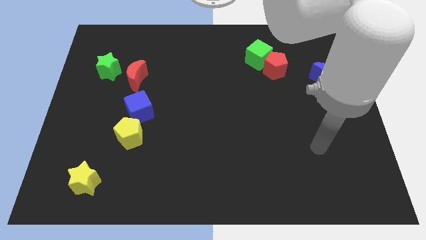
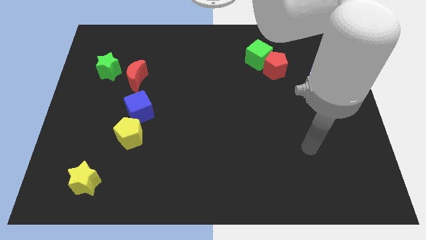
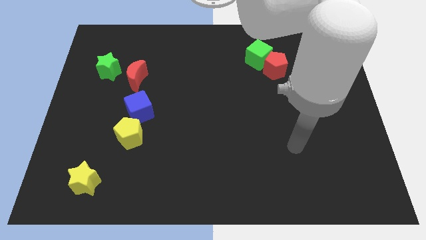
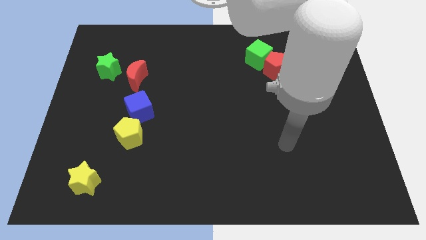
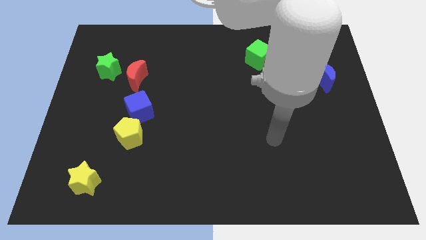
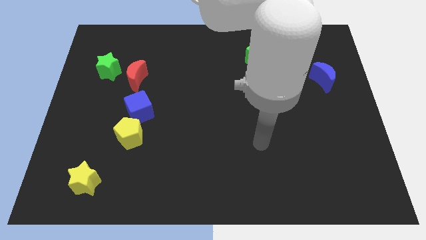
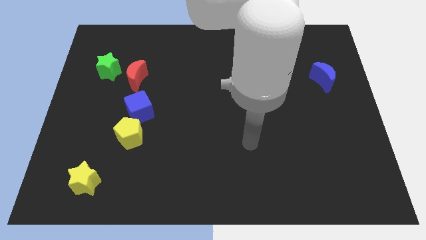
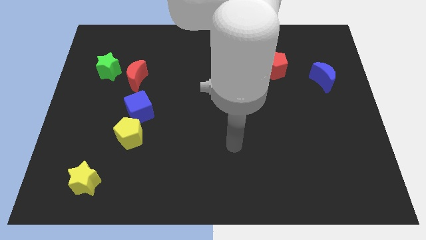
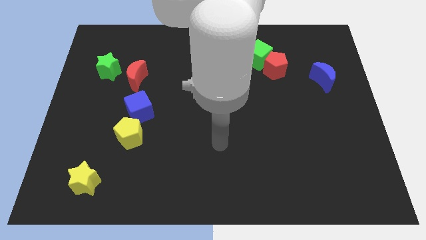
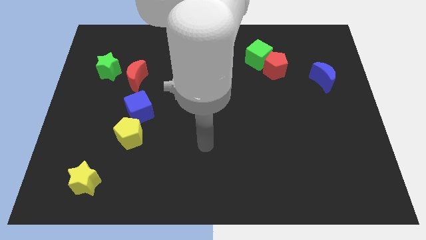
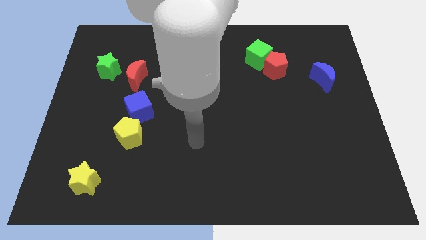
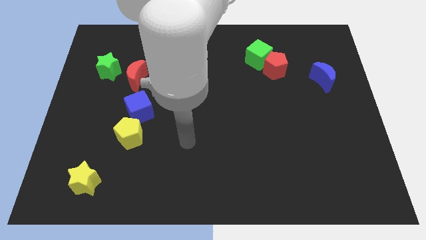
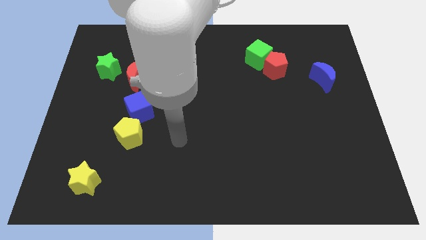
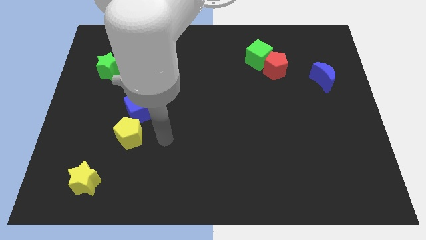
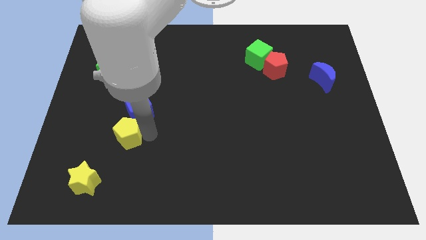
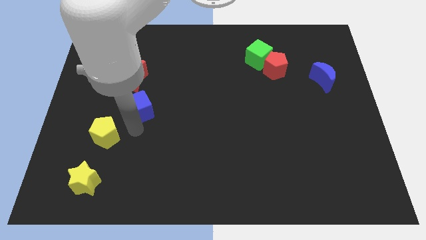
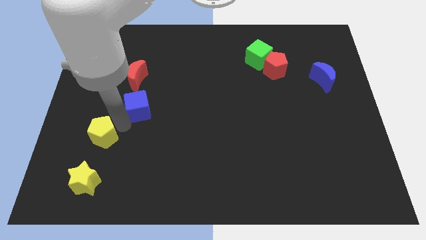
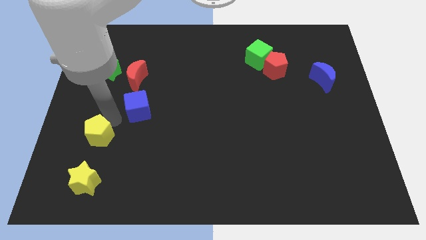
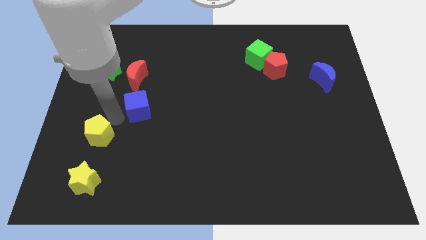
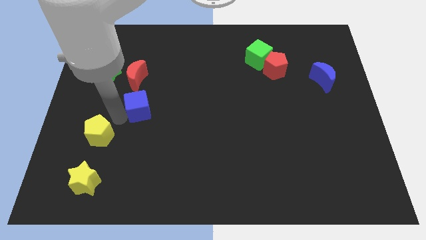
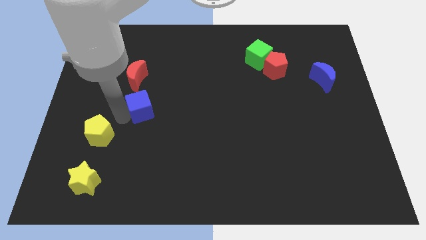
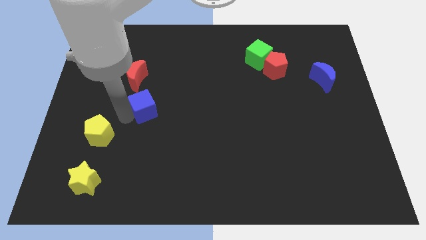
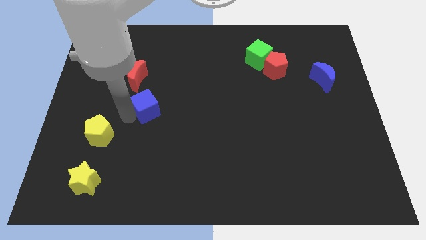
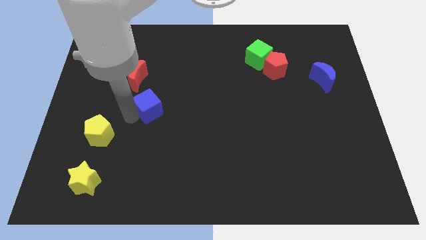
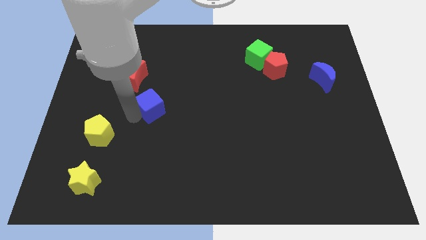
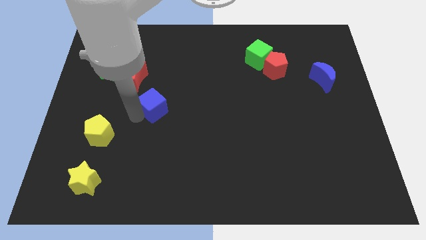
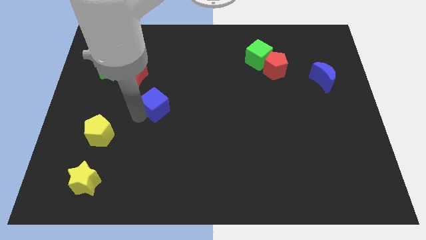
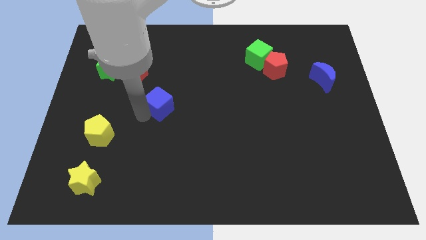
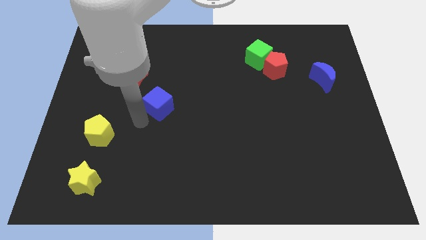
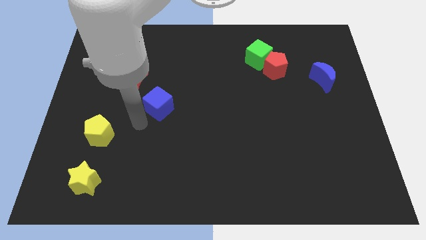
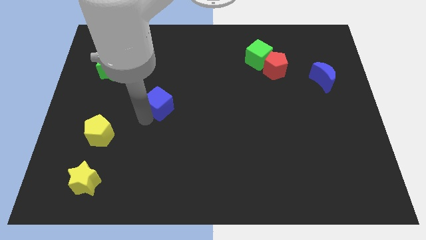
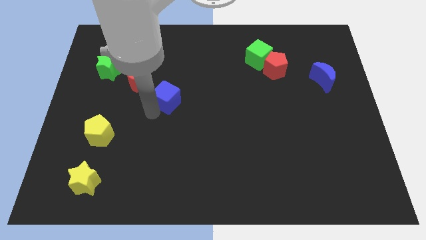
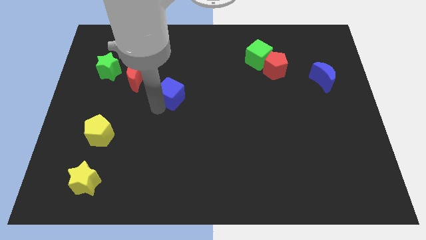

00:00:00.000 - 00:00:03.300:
push the blue cube a bit upwards and to the right

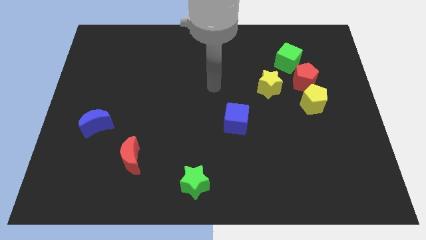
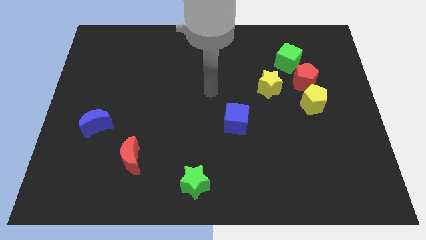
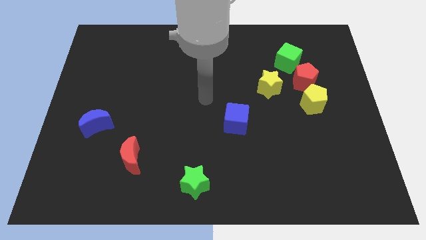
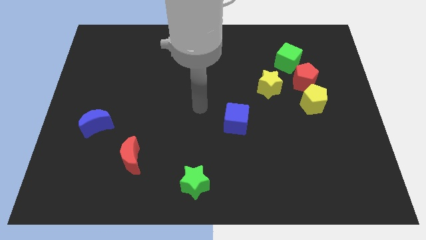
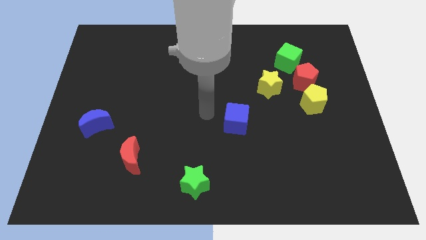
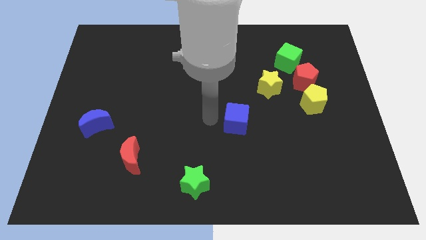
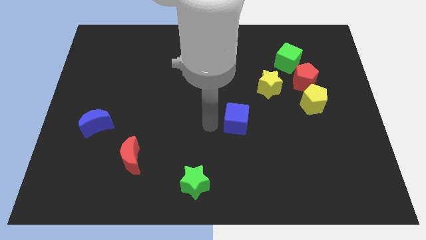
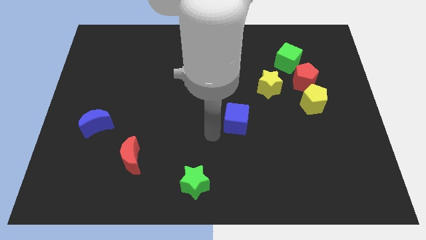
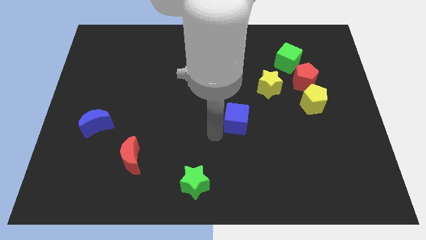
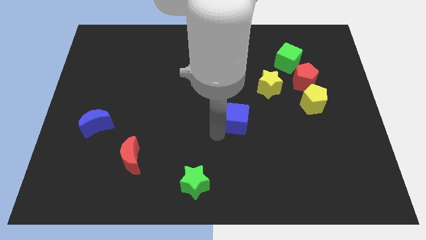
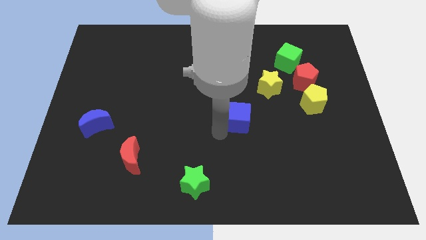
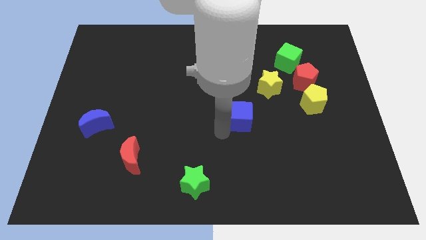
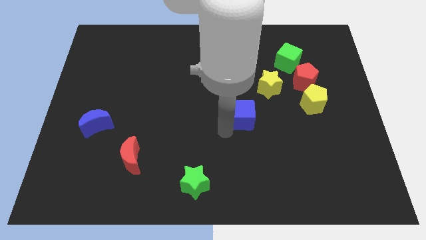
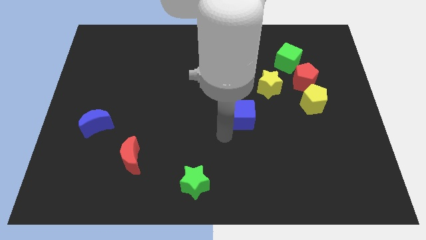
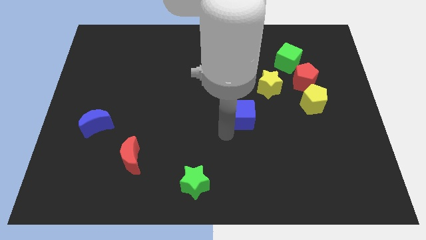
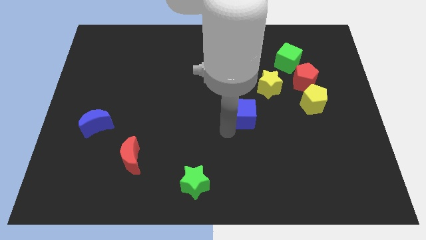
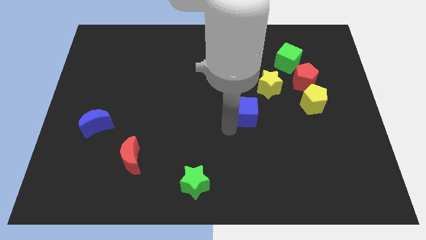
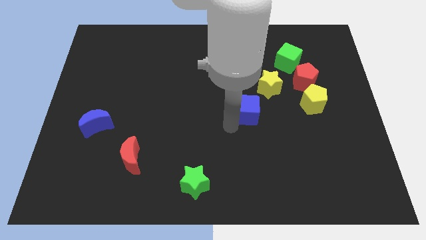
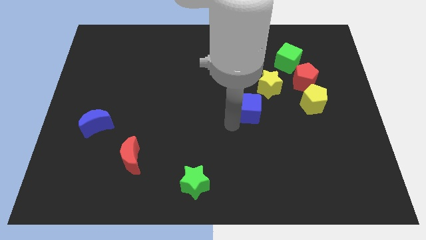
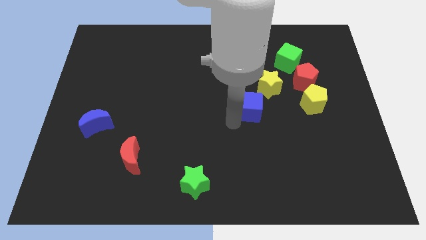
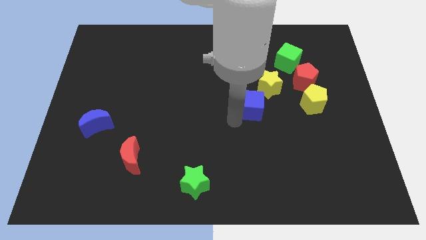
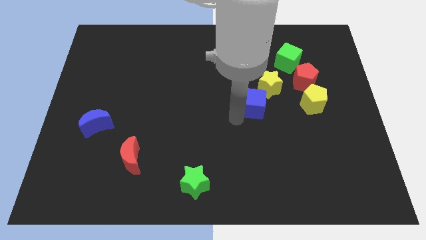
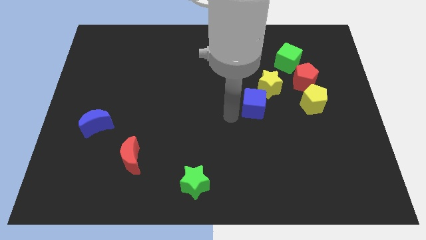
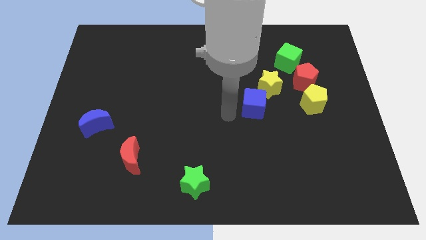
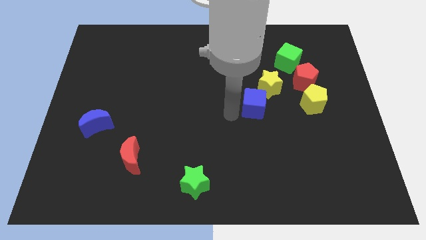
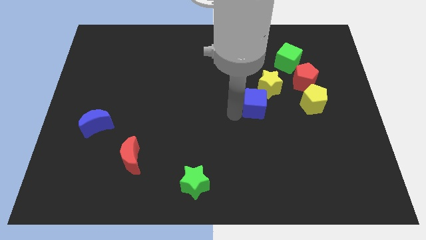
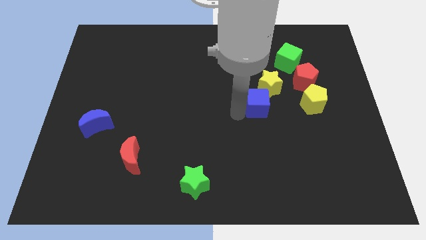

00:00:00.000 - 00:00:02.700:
slightly slide the blue cube upwards and right

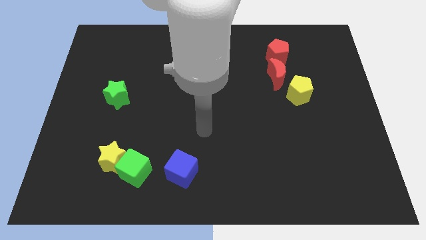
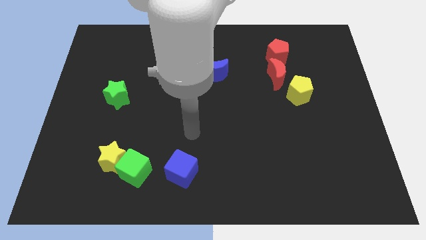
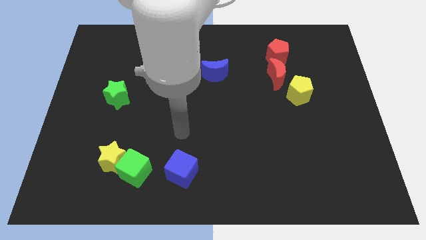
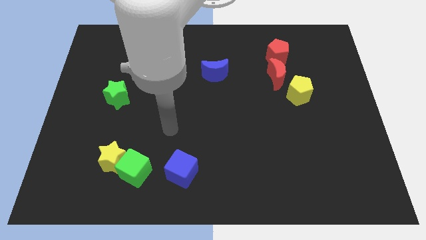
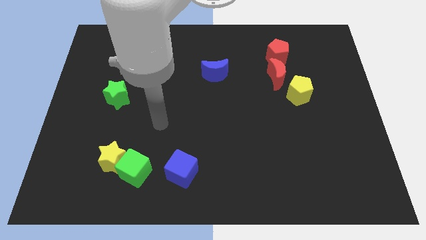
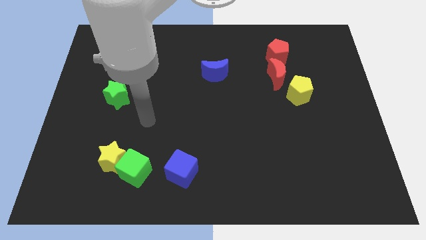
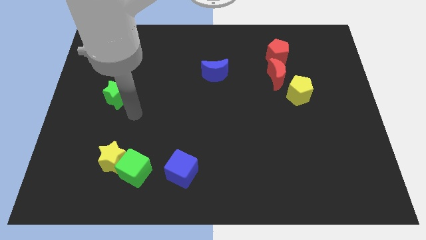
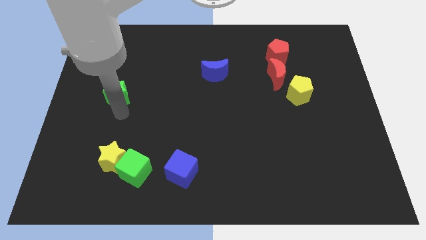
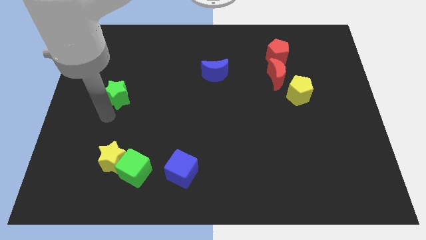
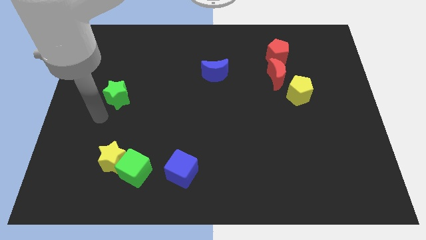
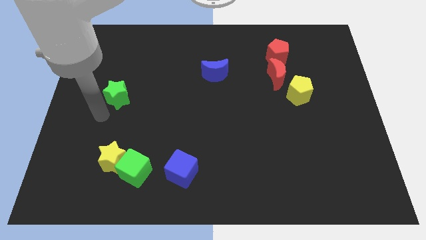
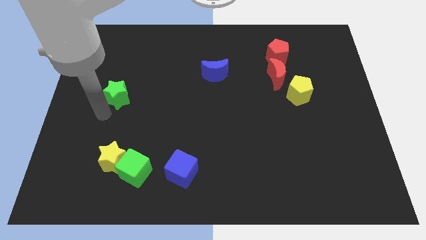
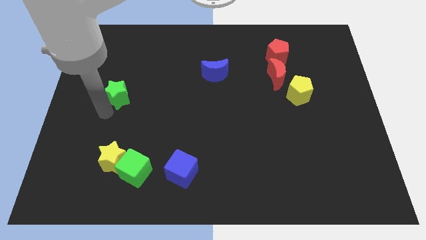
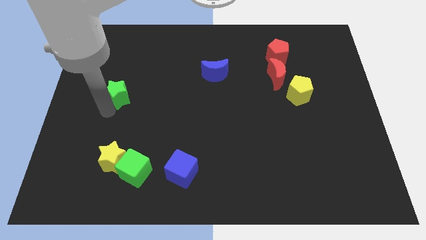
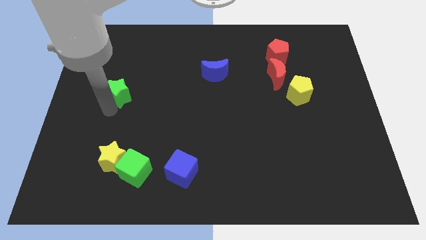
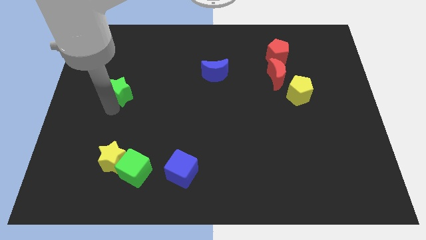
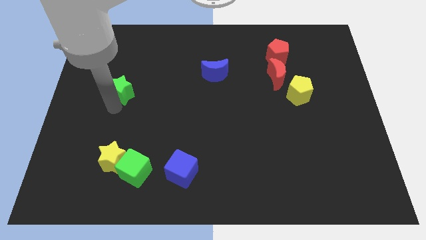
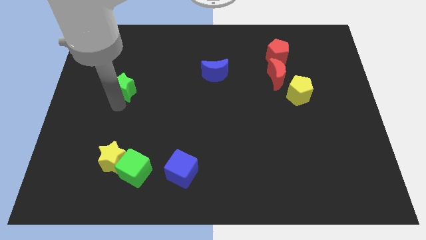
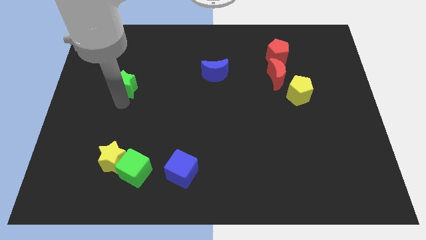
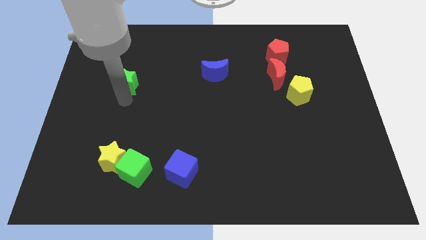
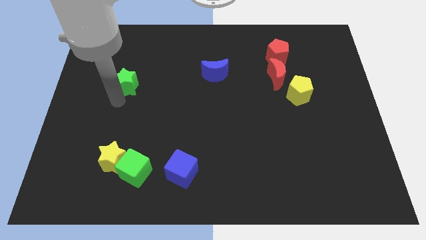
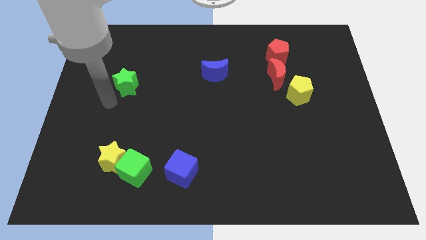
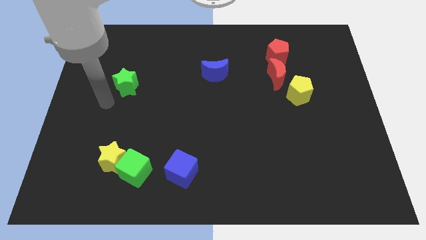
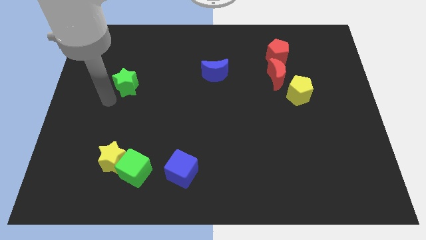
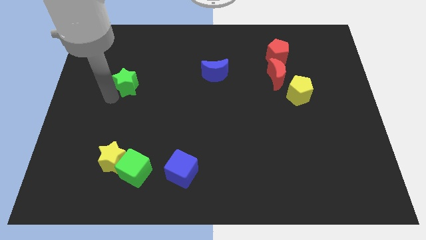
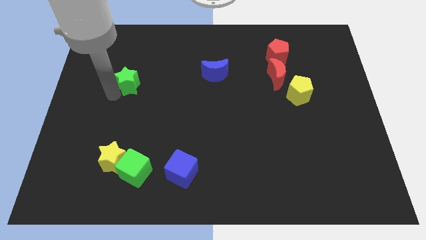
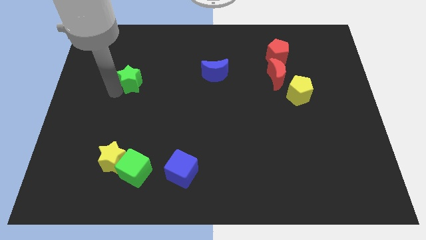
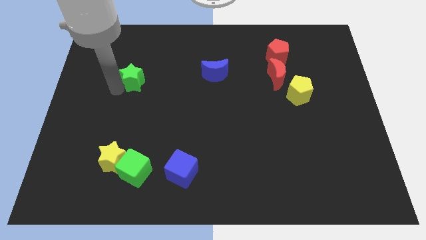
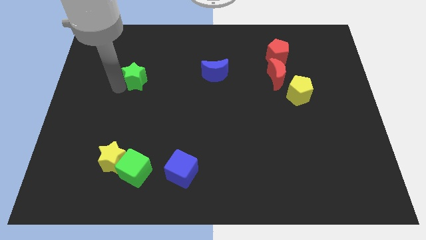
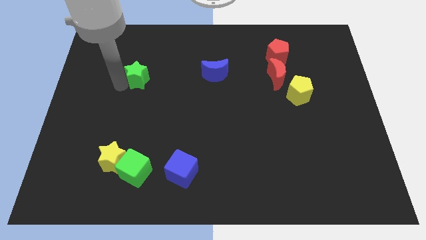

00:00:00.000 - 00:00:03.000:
slightly move the green star upwards and to the right
